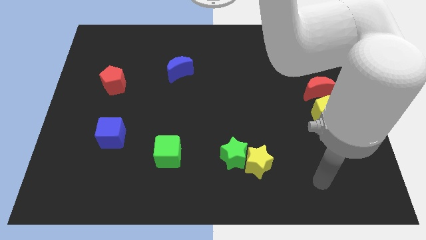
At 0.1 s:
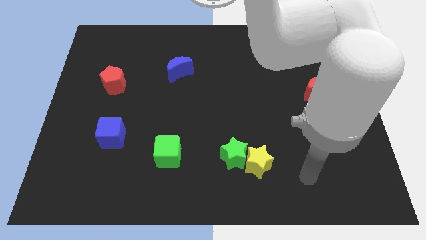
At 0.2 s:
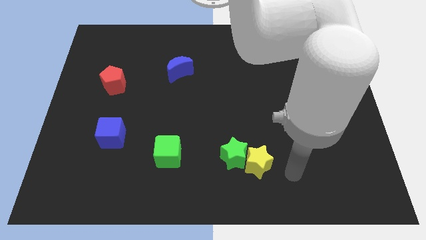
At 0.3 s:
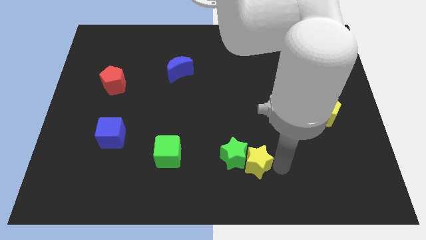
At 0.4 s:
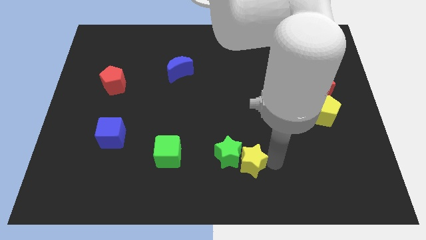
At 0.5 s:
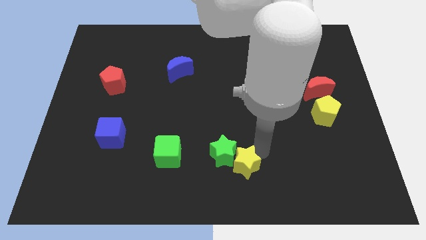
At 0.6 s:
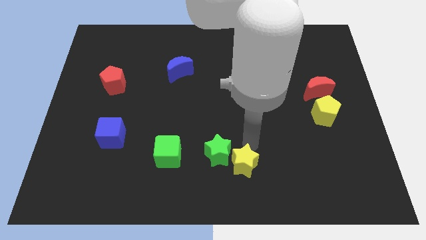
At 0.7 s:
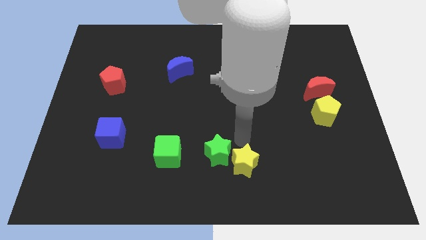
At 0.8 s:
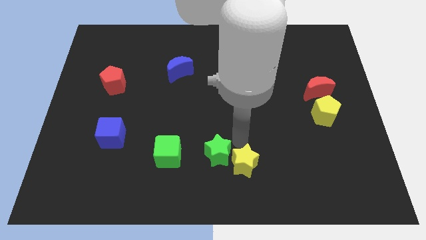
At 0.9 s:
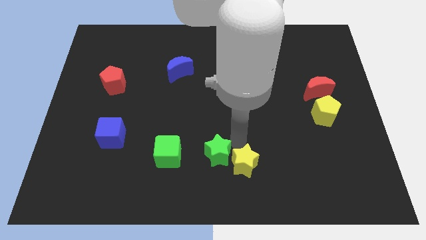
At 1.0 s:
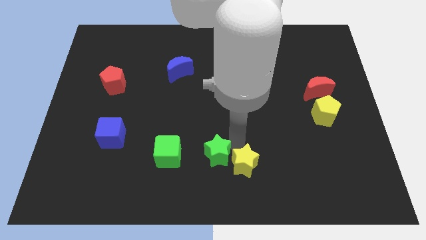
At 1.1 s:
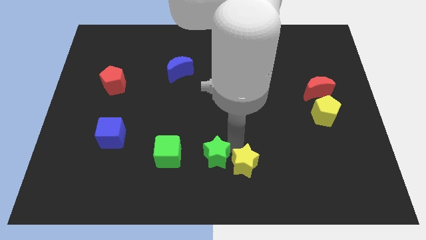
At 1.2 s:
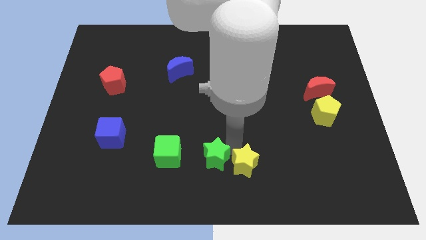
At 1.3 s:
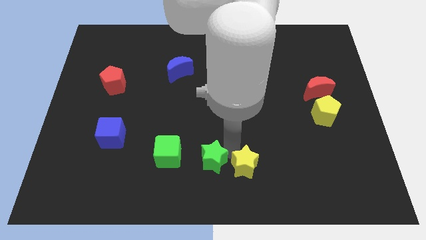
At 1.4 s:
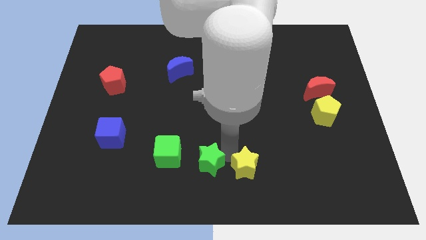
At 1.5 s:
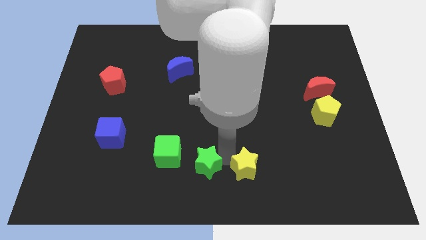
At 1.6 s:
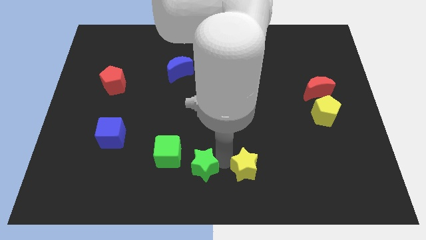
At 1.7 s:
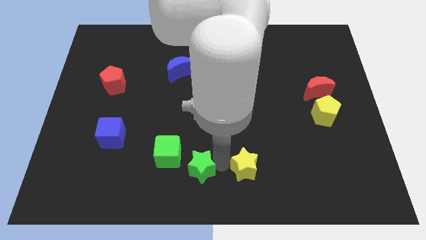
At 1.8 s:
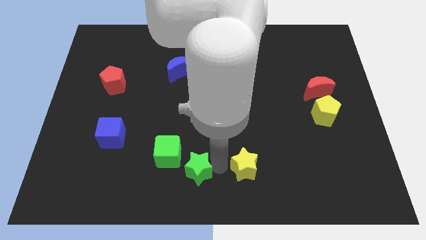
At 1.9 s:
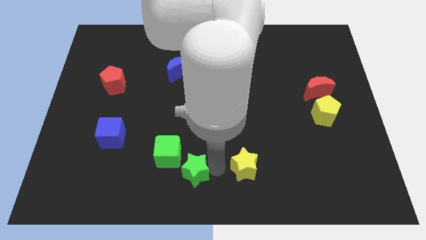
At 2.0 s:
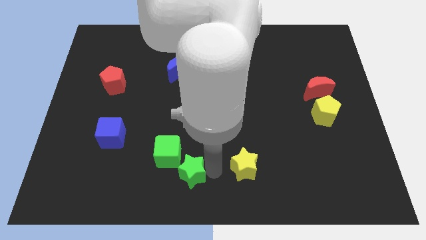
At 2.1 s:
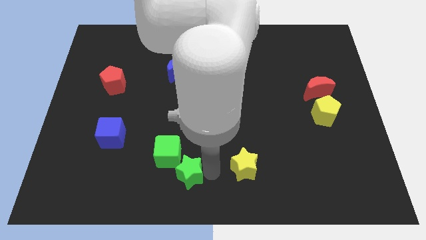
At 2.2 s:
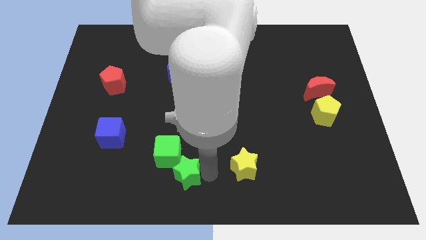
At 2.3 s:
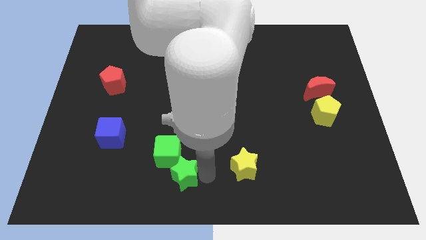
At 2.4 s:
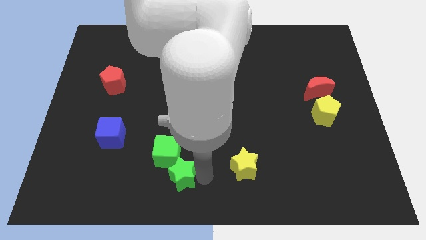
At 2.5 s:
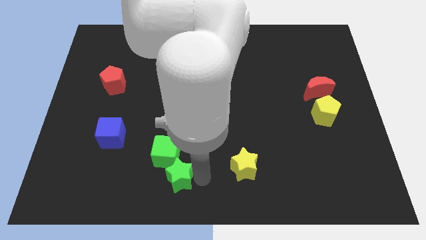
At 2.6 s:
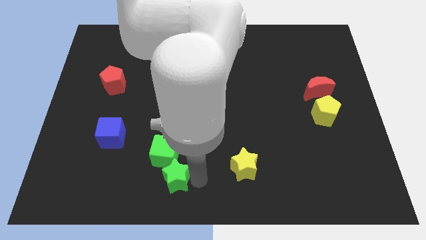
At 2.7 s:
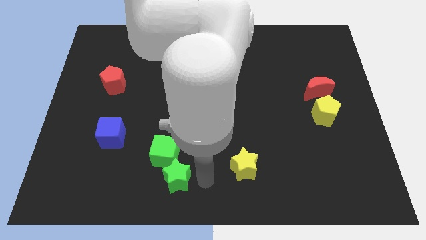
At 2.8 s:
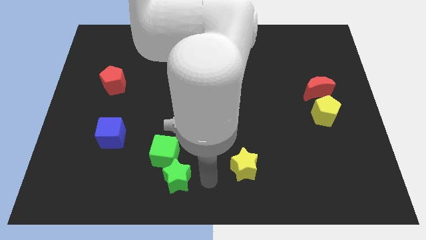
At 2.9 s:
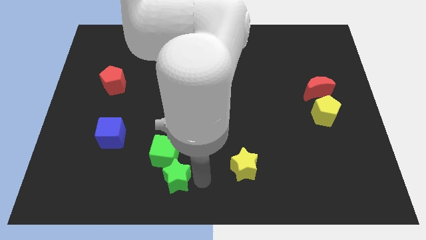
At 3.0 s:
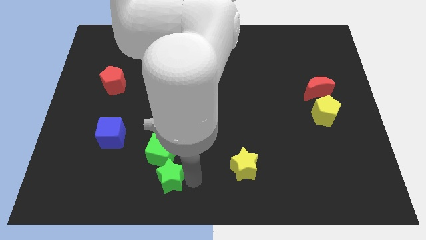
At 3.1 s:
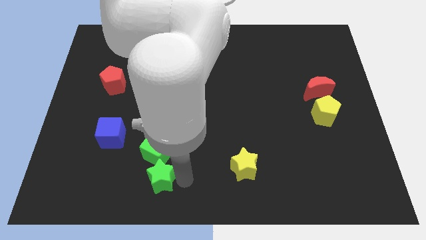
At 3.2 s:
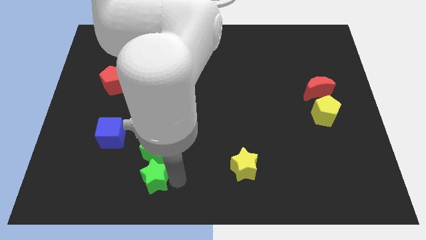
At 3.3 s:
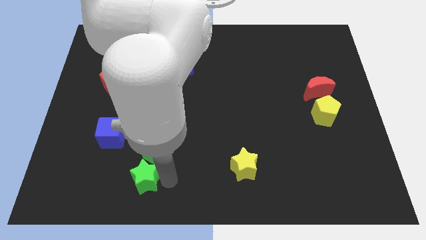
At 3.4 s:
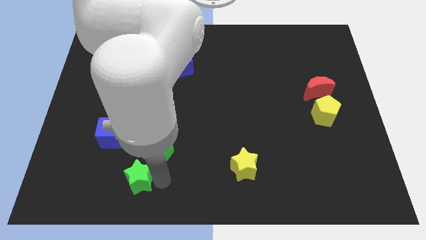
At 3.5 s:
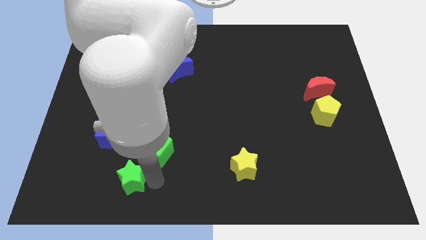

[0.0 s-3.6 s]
push the green star left

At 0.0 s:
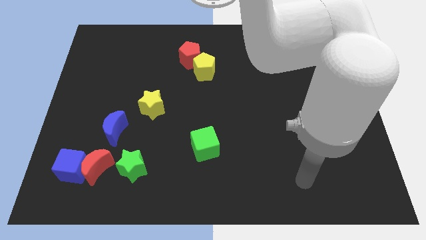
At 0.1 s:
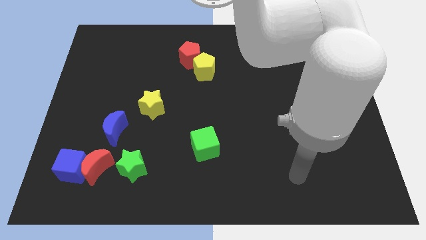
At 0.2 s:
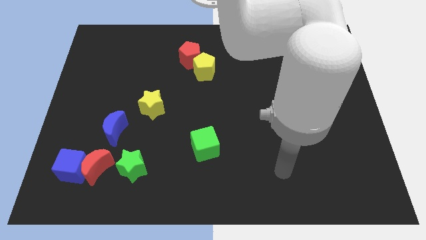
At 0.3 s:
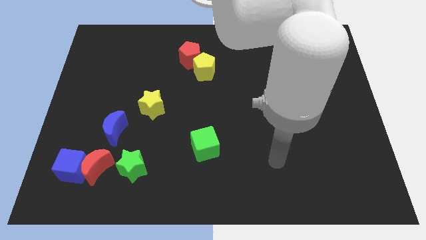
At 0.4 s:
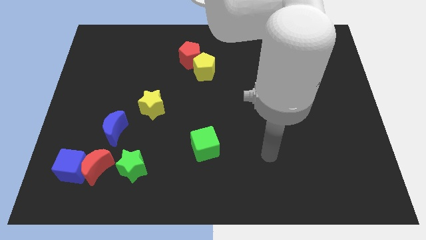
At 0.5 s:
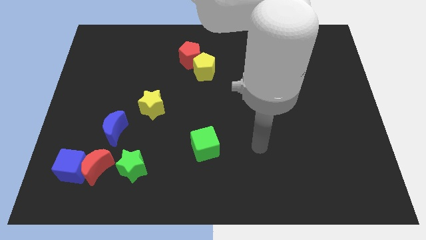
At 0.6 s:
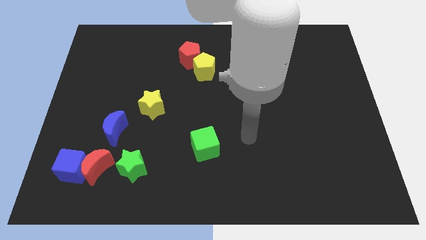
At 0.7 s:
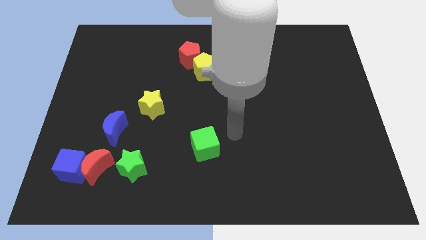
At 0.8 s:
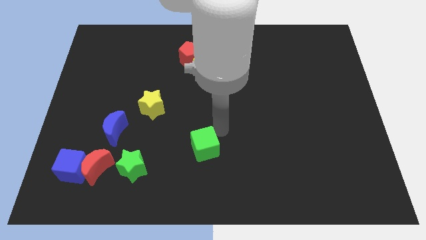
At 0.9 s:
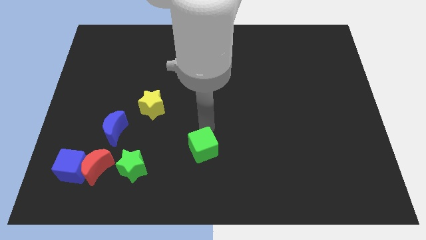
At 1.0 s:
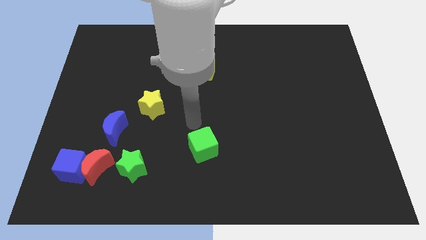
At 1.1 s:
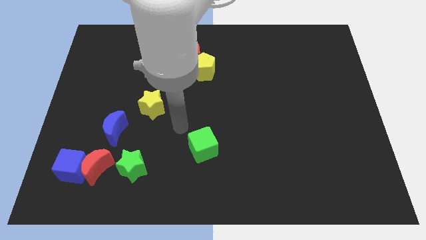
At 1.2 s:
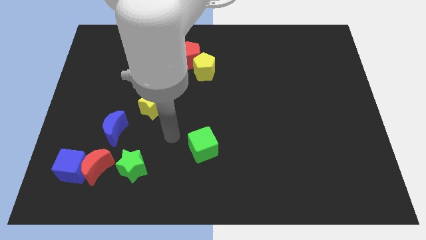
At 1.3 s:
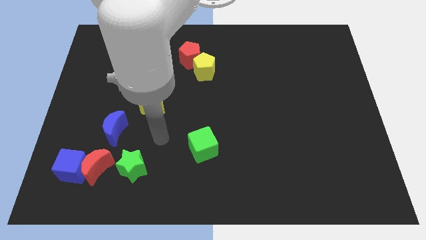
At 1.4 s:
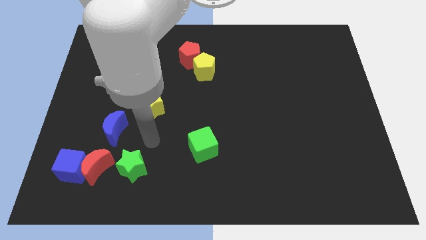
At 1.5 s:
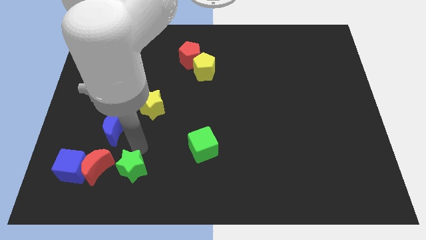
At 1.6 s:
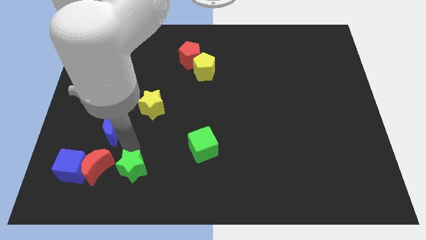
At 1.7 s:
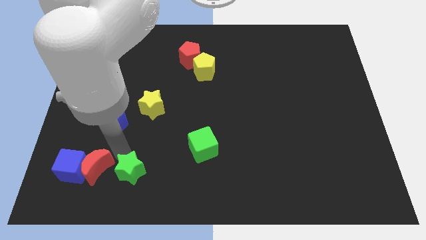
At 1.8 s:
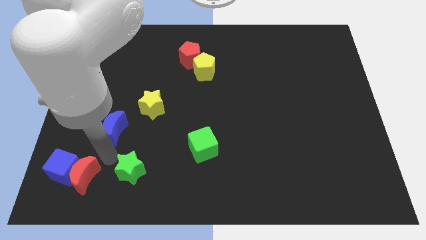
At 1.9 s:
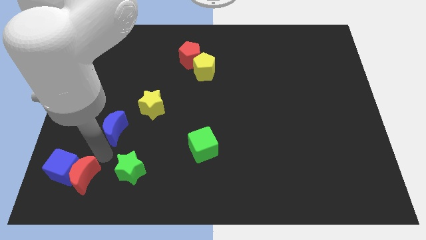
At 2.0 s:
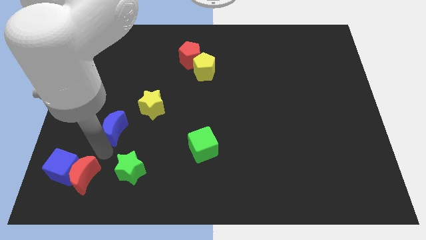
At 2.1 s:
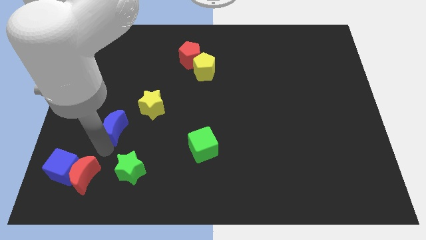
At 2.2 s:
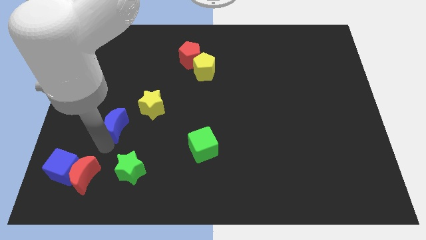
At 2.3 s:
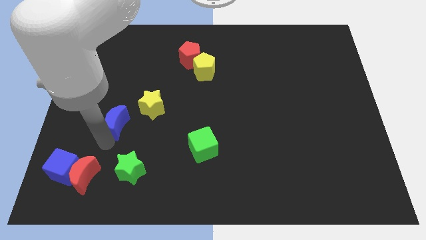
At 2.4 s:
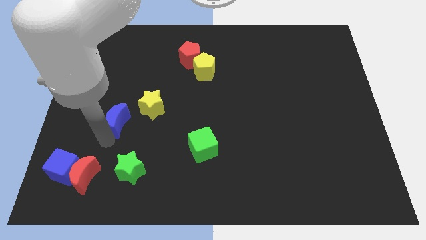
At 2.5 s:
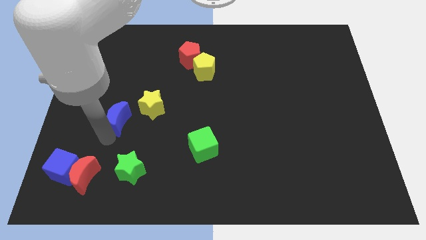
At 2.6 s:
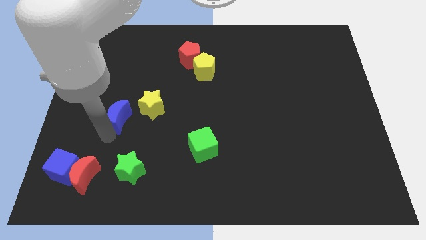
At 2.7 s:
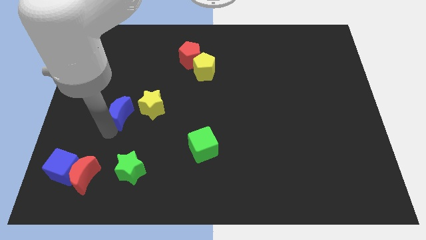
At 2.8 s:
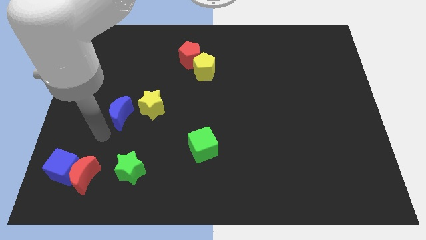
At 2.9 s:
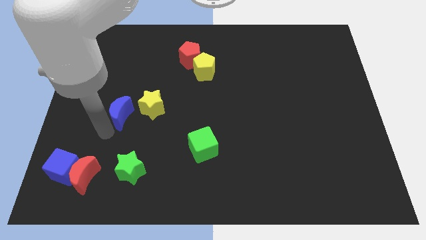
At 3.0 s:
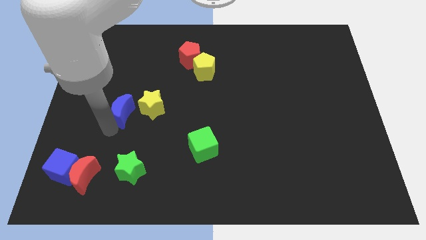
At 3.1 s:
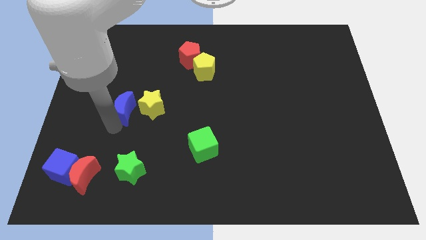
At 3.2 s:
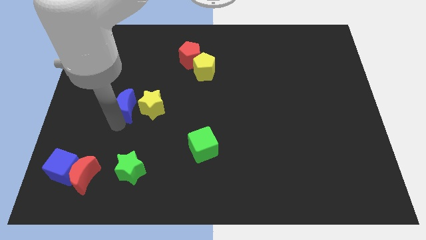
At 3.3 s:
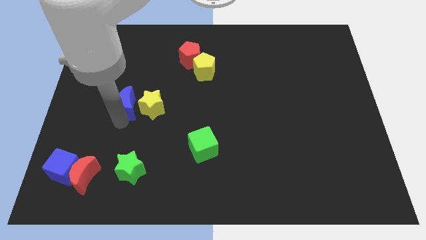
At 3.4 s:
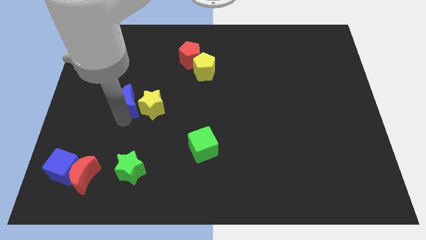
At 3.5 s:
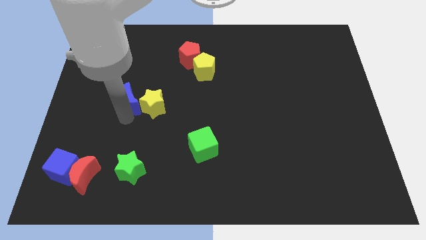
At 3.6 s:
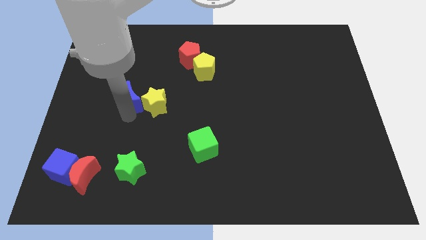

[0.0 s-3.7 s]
push the blue moon diagonally up and to the right somewhat

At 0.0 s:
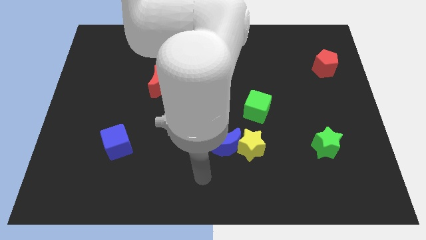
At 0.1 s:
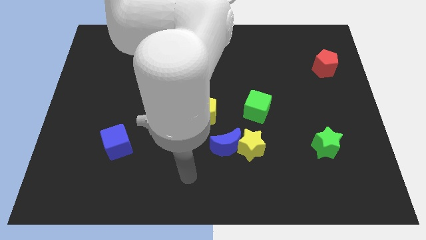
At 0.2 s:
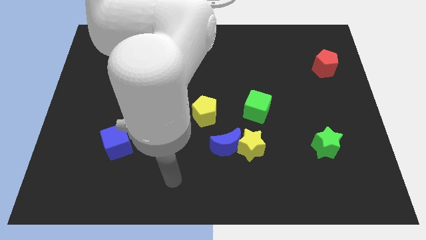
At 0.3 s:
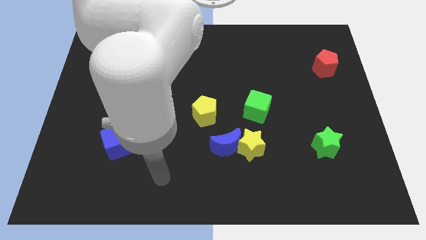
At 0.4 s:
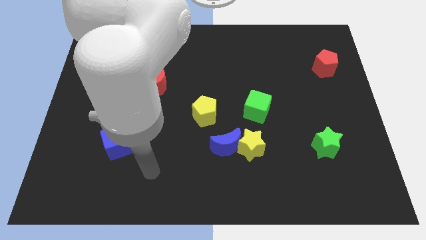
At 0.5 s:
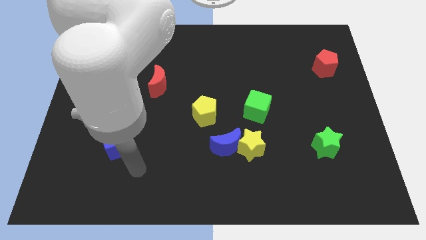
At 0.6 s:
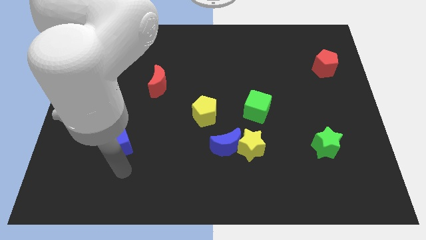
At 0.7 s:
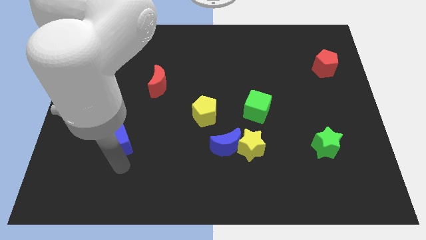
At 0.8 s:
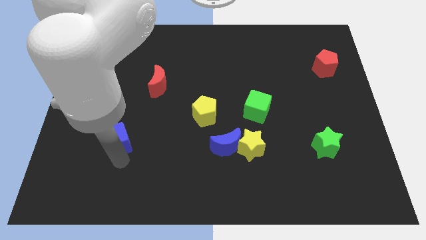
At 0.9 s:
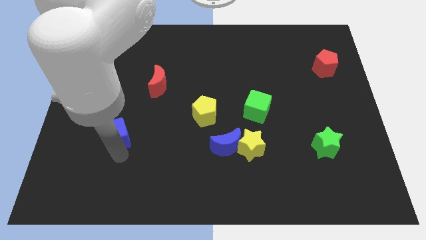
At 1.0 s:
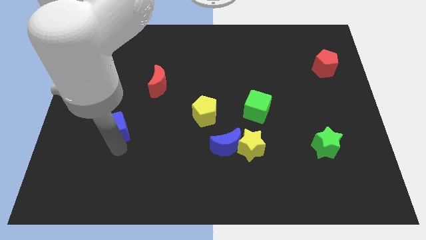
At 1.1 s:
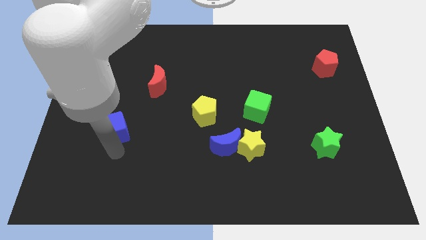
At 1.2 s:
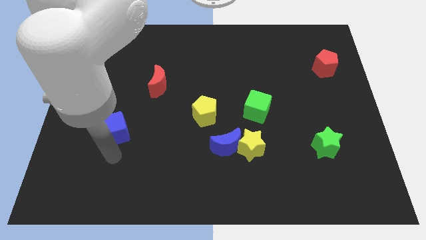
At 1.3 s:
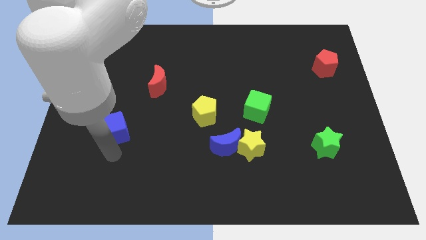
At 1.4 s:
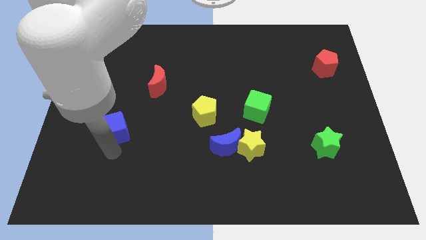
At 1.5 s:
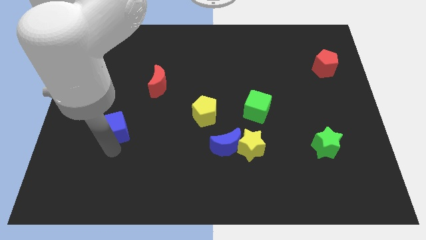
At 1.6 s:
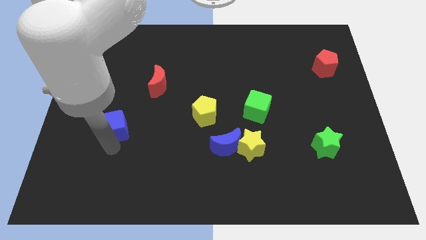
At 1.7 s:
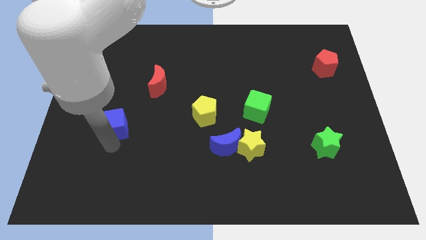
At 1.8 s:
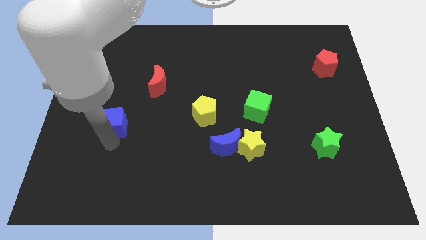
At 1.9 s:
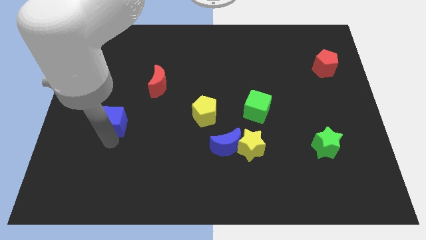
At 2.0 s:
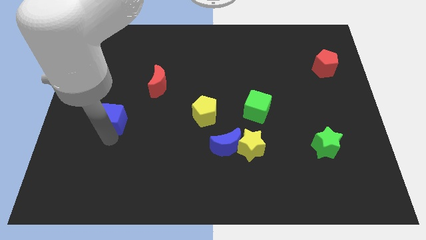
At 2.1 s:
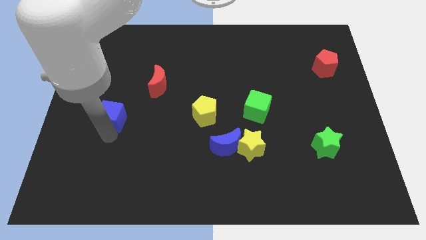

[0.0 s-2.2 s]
slide the blue cube a bit up
